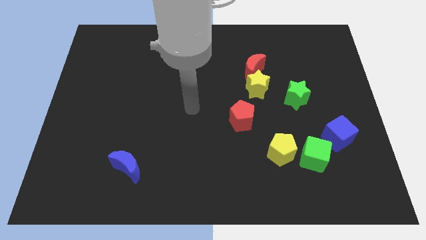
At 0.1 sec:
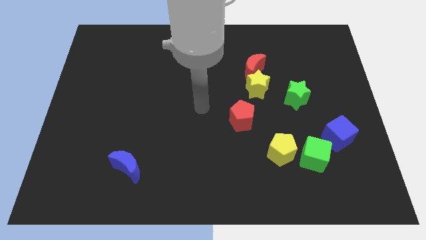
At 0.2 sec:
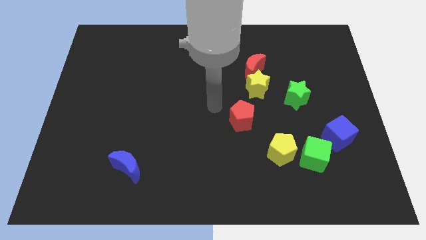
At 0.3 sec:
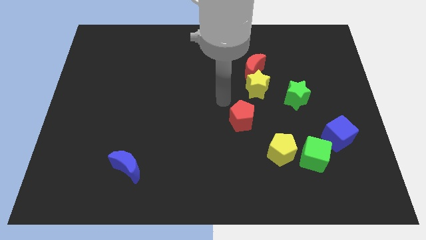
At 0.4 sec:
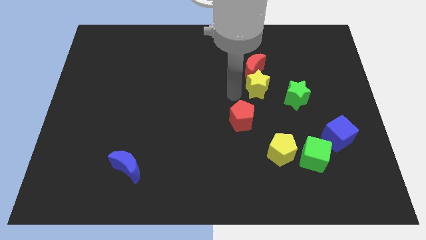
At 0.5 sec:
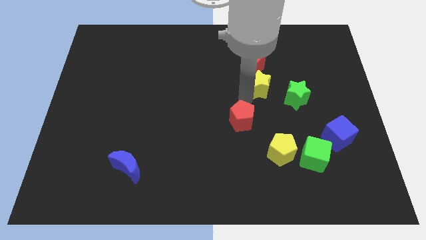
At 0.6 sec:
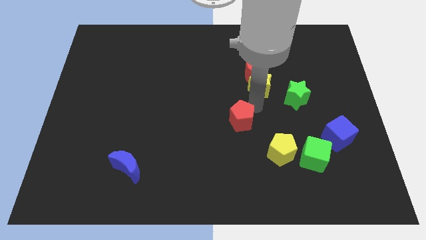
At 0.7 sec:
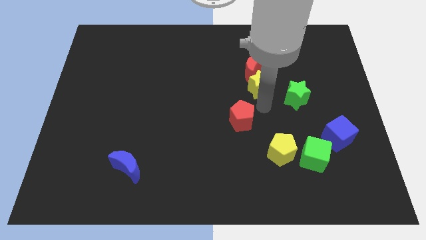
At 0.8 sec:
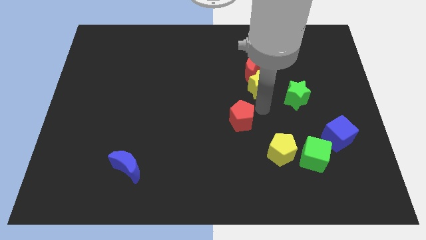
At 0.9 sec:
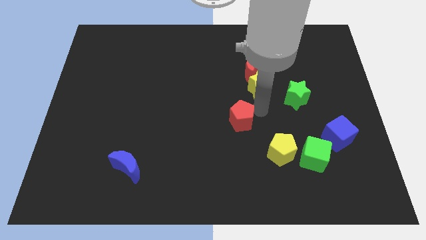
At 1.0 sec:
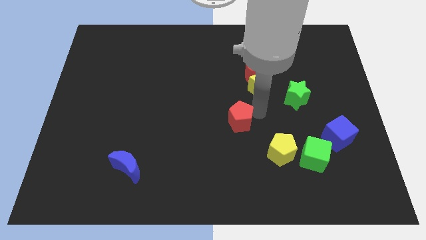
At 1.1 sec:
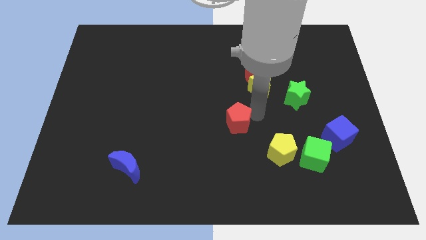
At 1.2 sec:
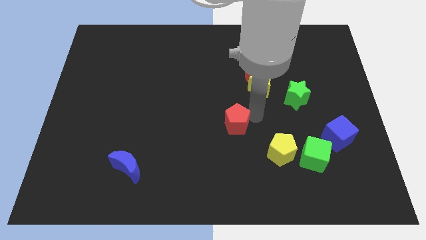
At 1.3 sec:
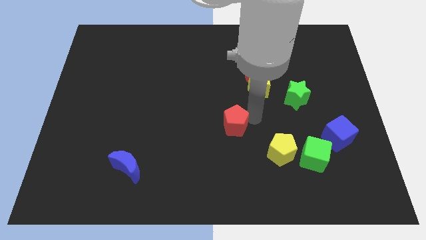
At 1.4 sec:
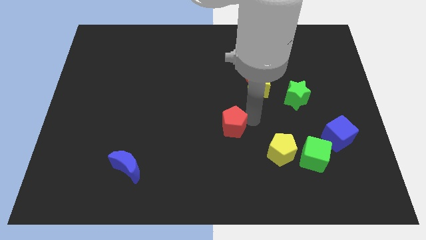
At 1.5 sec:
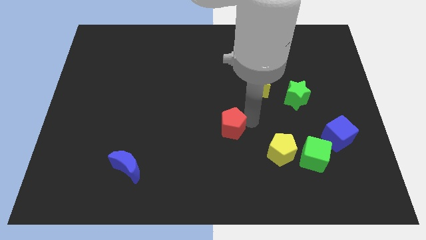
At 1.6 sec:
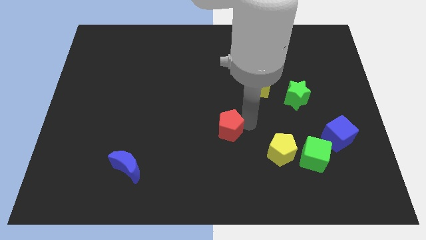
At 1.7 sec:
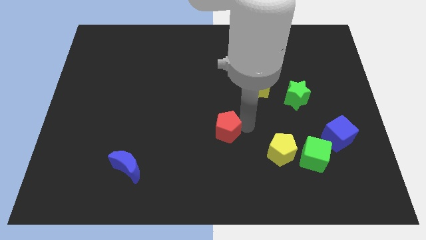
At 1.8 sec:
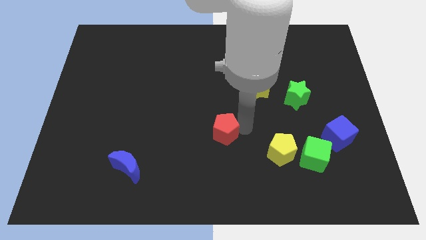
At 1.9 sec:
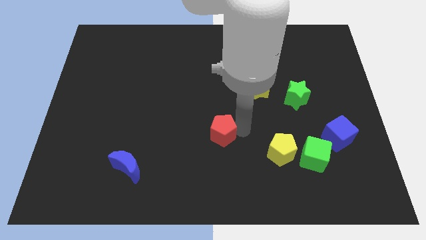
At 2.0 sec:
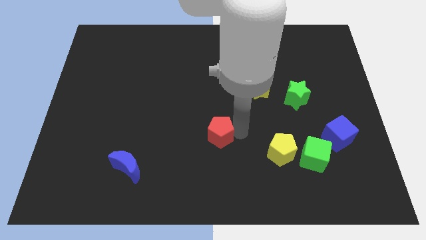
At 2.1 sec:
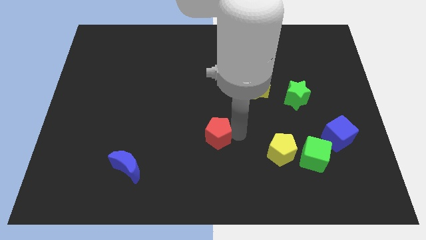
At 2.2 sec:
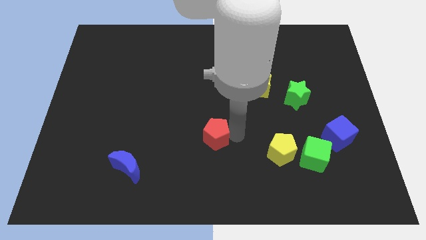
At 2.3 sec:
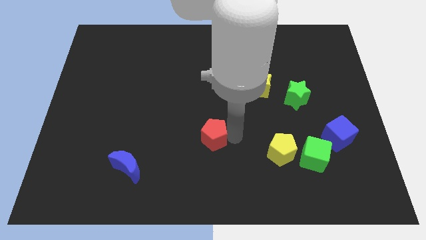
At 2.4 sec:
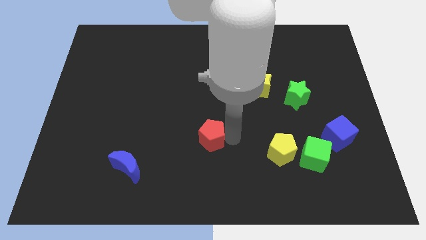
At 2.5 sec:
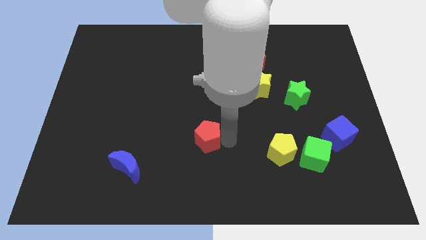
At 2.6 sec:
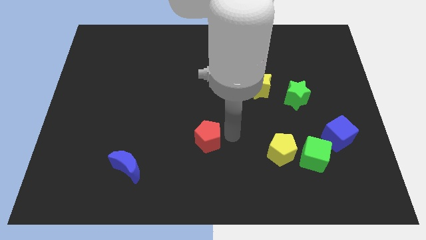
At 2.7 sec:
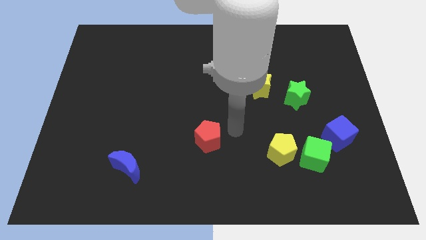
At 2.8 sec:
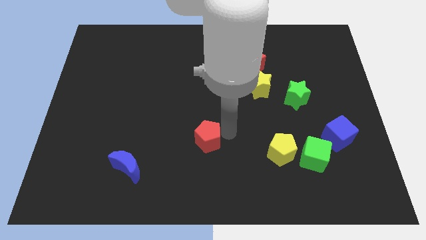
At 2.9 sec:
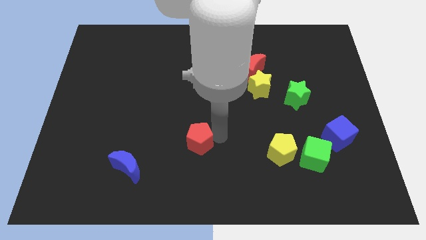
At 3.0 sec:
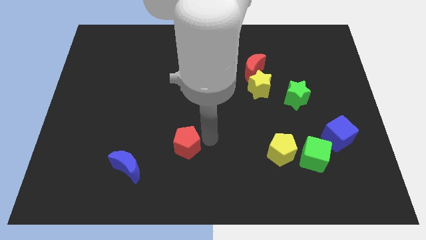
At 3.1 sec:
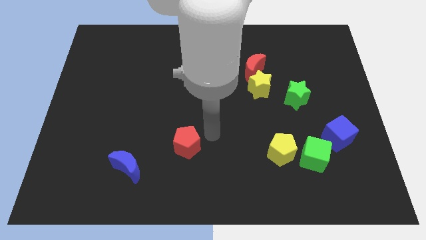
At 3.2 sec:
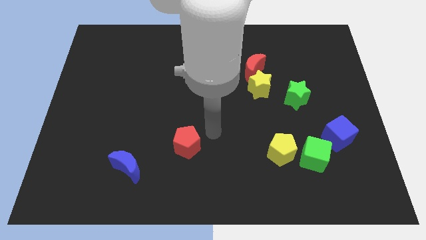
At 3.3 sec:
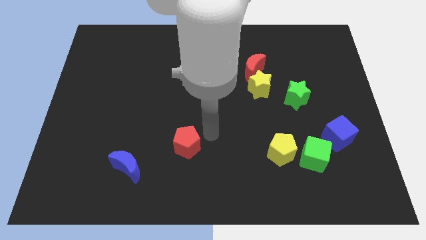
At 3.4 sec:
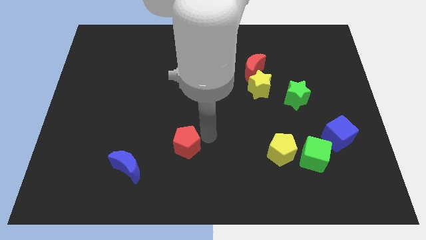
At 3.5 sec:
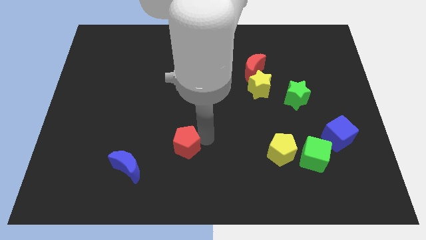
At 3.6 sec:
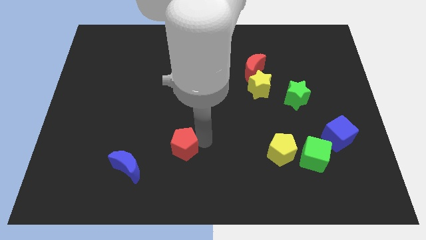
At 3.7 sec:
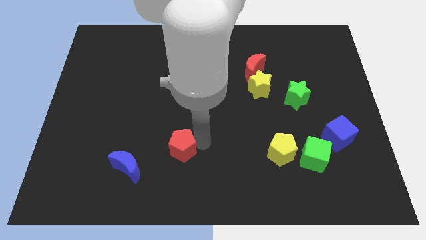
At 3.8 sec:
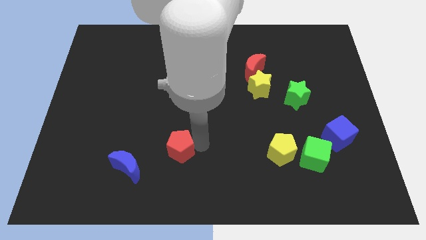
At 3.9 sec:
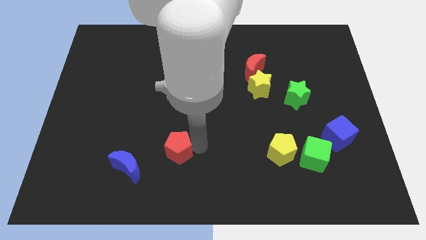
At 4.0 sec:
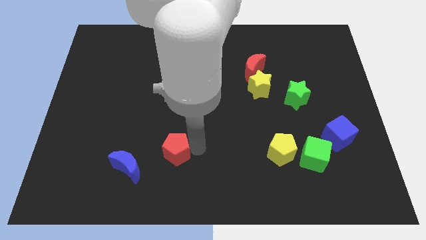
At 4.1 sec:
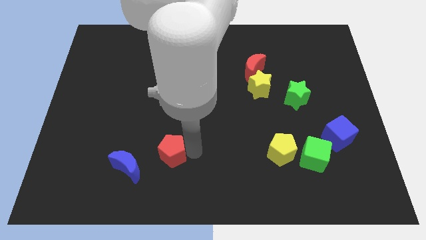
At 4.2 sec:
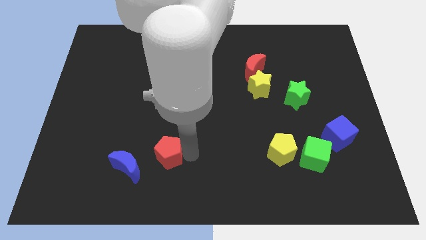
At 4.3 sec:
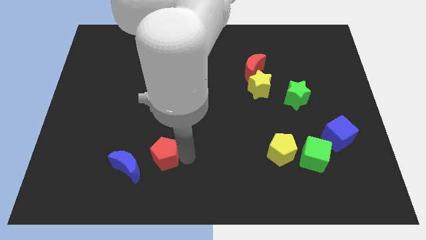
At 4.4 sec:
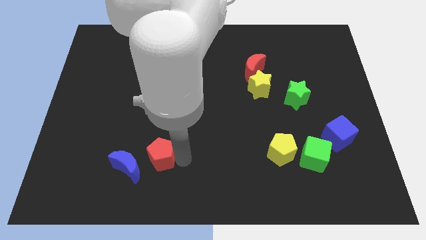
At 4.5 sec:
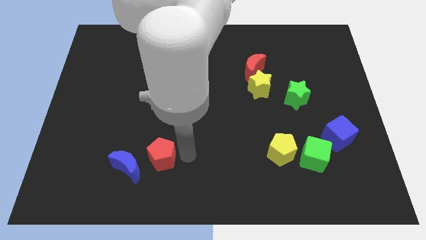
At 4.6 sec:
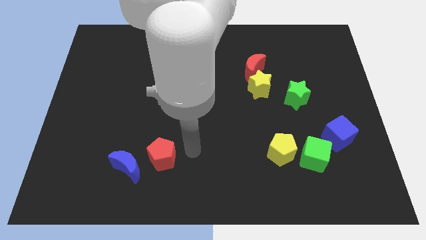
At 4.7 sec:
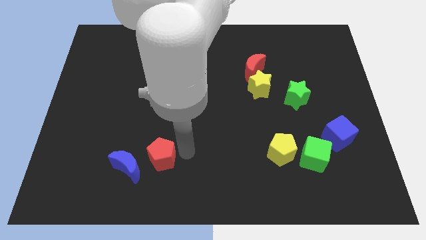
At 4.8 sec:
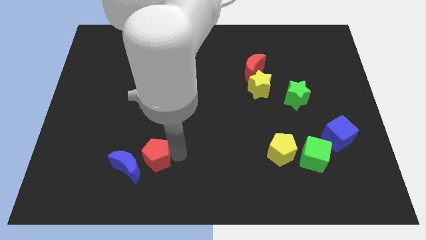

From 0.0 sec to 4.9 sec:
slide the red pentagon towards the blue moon
